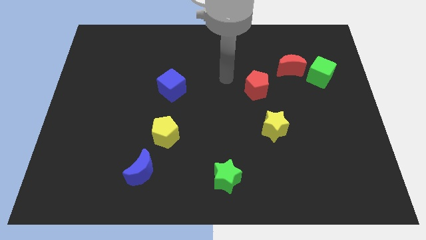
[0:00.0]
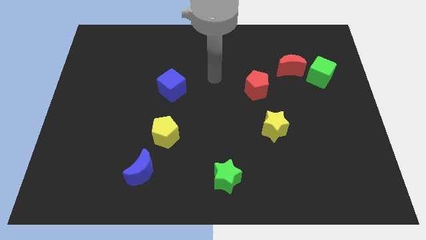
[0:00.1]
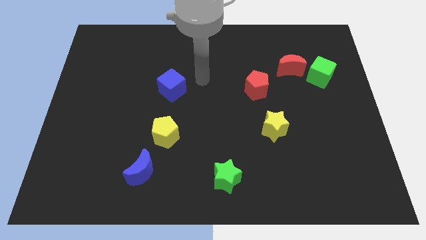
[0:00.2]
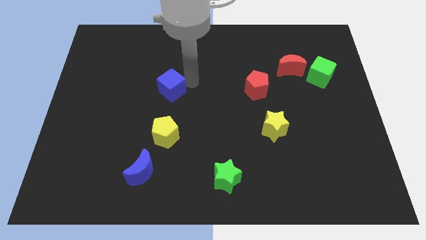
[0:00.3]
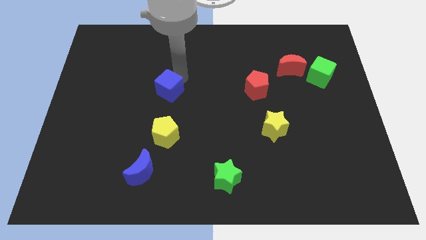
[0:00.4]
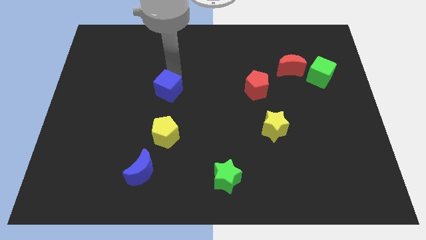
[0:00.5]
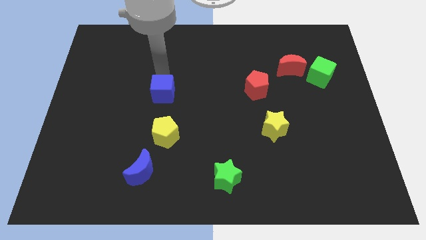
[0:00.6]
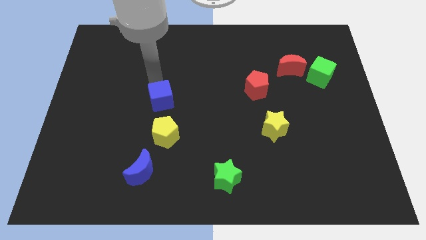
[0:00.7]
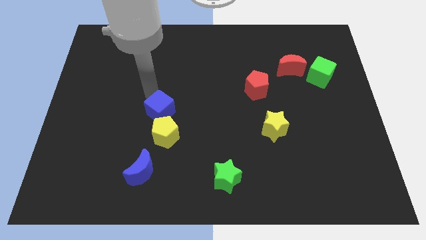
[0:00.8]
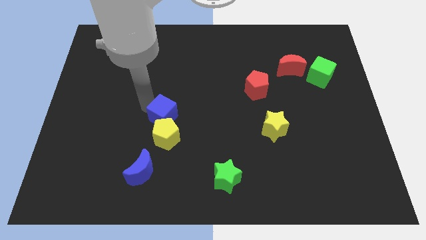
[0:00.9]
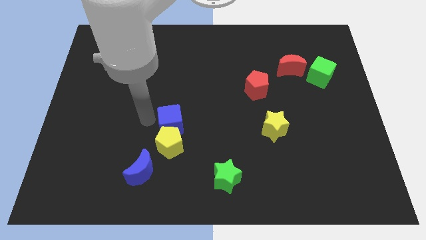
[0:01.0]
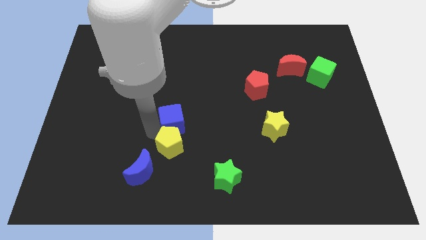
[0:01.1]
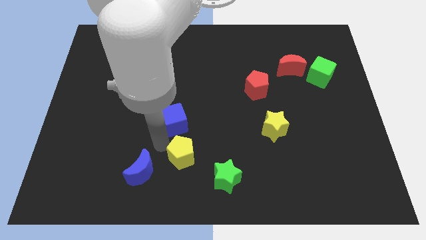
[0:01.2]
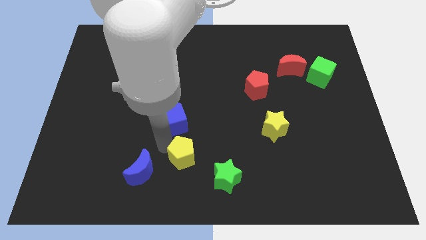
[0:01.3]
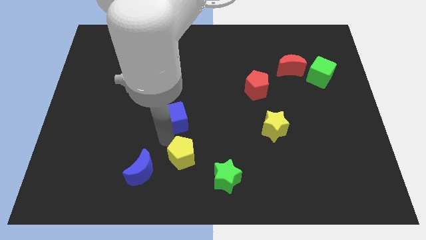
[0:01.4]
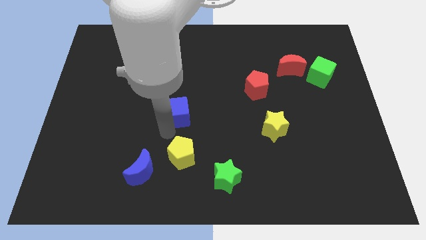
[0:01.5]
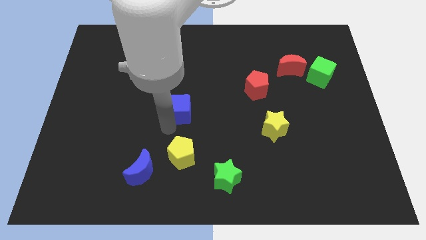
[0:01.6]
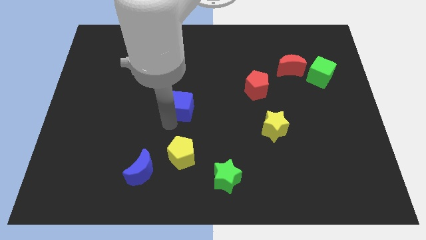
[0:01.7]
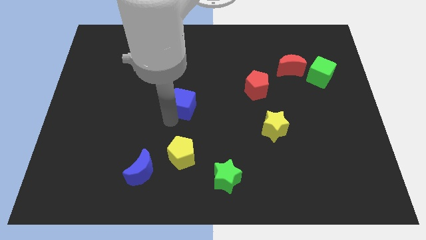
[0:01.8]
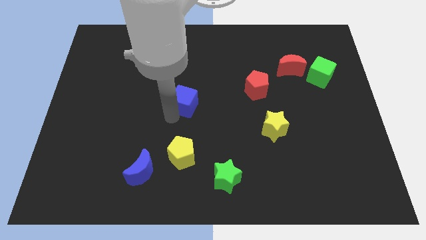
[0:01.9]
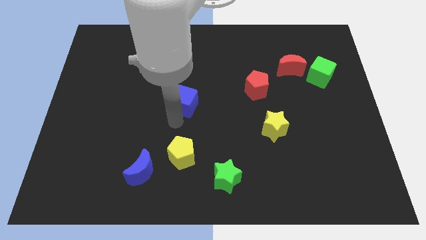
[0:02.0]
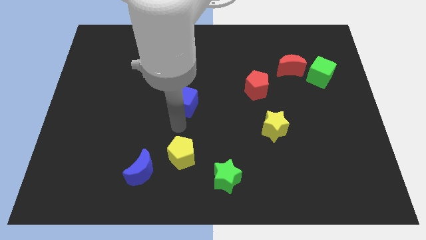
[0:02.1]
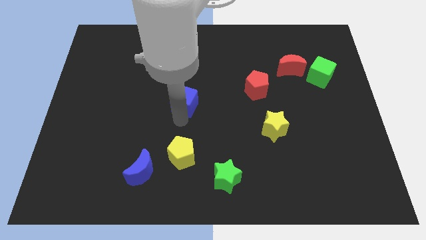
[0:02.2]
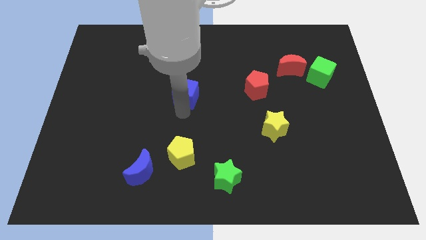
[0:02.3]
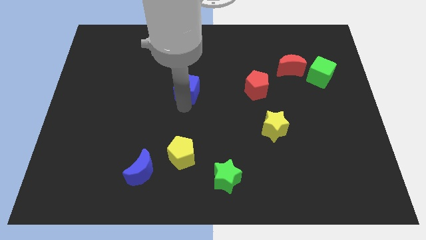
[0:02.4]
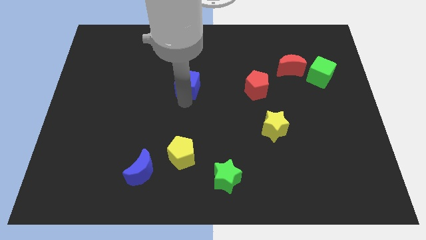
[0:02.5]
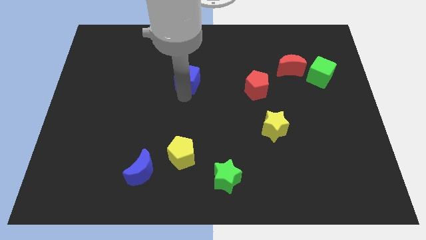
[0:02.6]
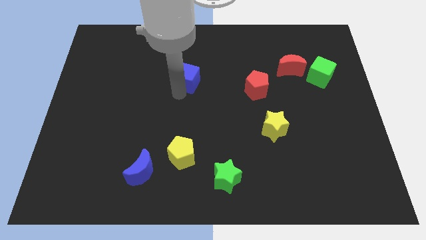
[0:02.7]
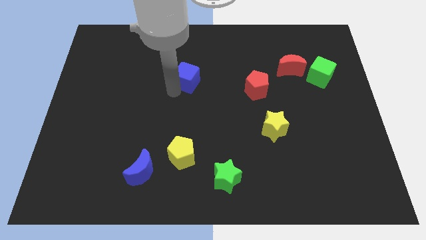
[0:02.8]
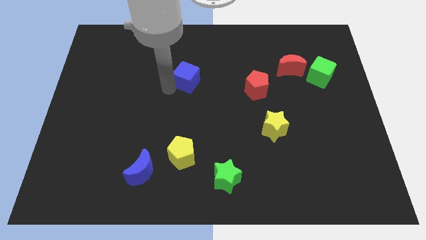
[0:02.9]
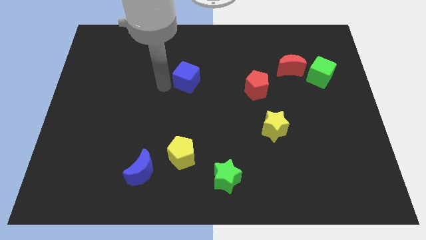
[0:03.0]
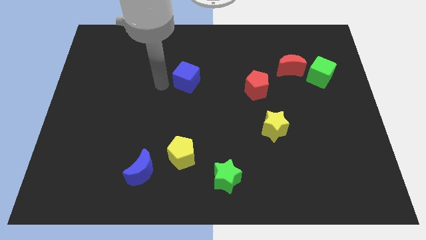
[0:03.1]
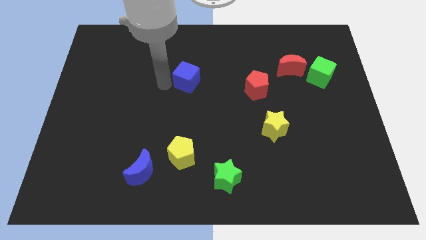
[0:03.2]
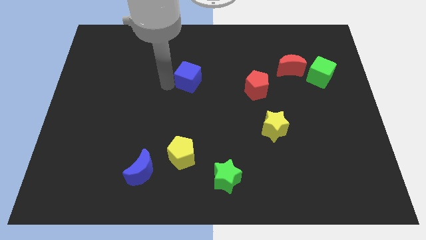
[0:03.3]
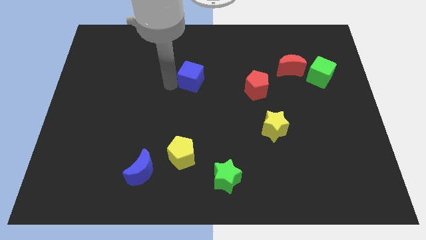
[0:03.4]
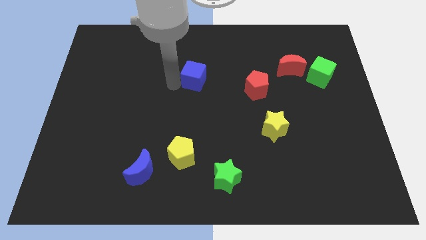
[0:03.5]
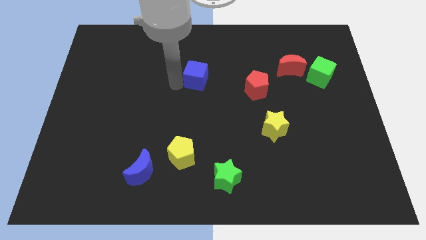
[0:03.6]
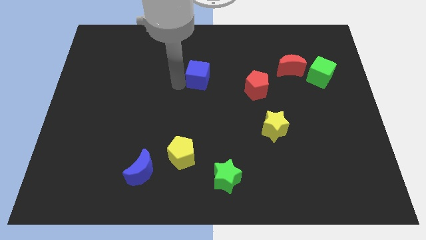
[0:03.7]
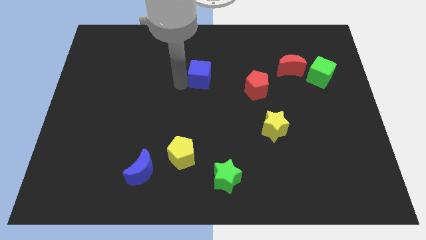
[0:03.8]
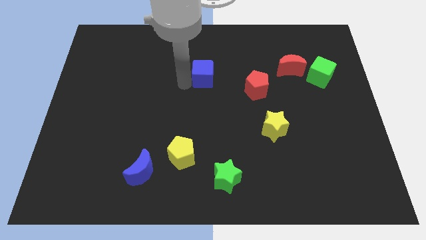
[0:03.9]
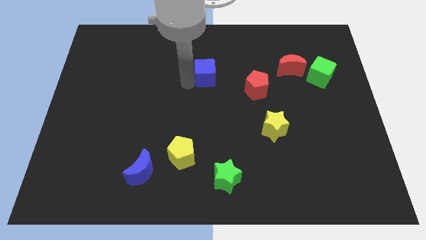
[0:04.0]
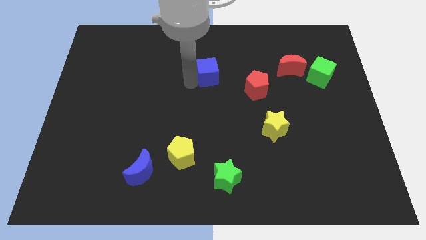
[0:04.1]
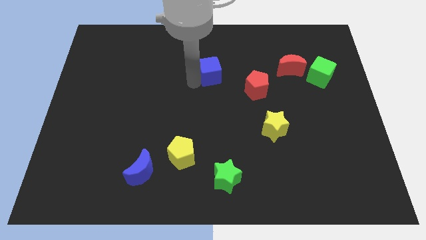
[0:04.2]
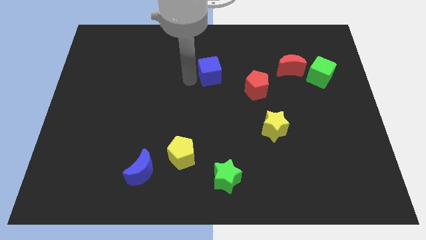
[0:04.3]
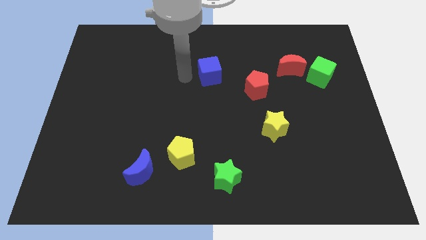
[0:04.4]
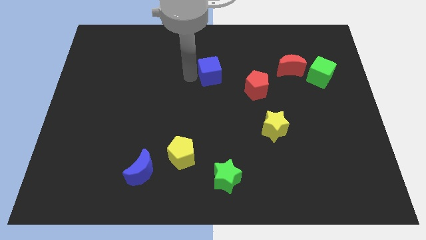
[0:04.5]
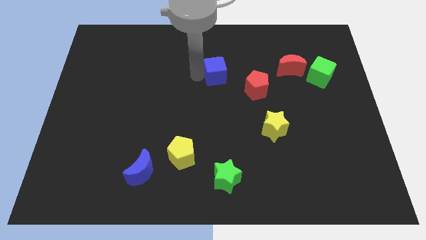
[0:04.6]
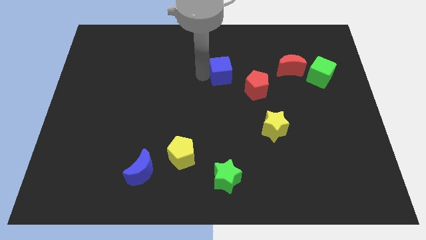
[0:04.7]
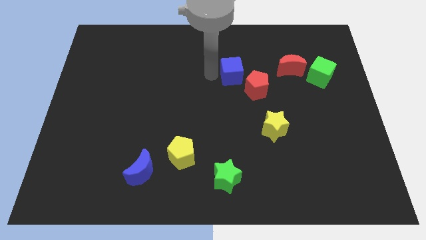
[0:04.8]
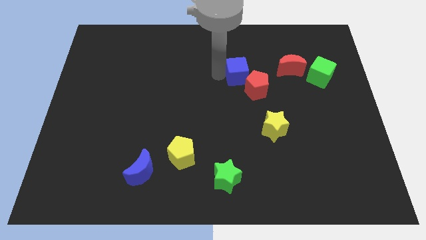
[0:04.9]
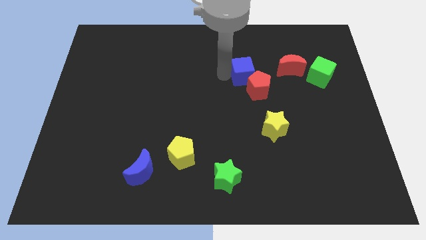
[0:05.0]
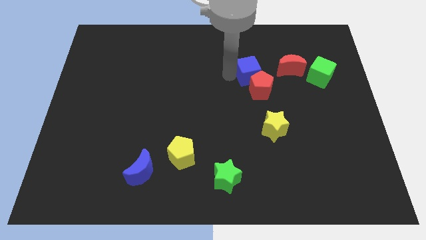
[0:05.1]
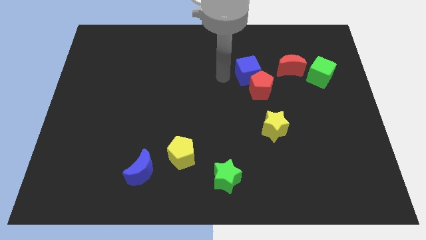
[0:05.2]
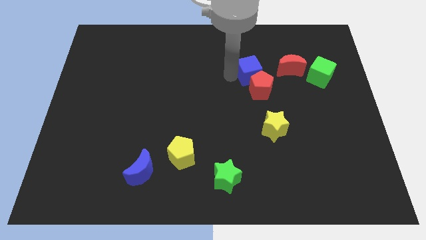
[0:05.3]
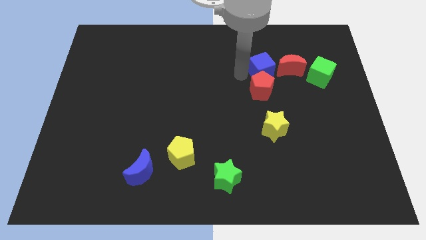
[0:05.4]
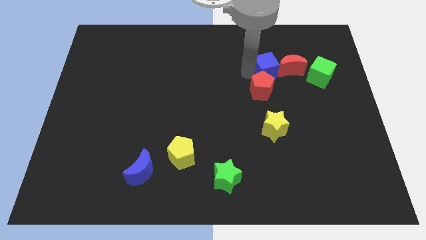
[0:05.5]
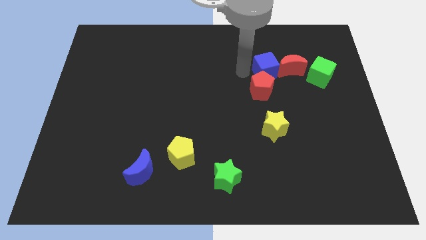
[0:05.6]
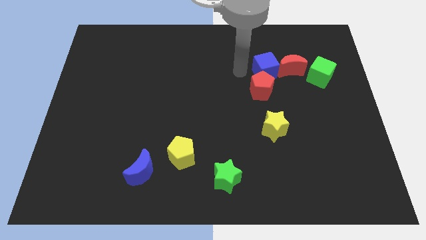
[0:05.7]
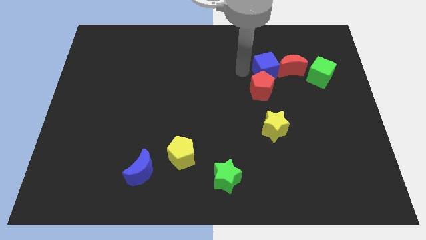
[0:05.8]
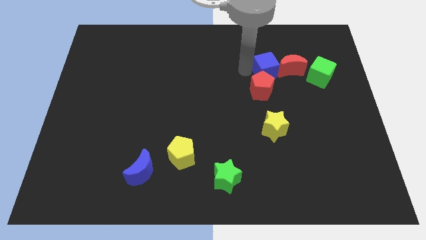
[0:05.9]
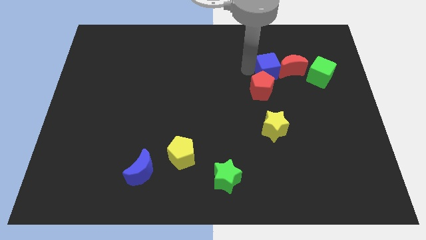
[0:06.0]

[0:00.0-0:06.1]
move the blue cube next to the red moon
